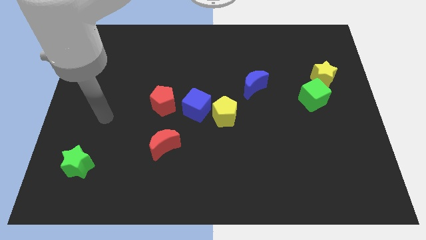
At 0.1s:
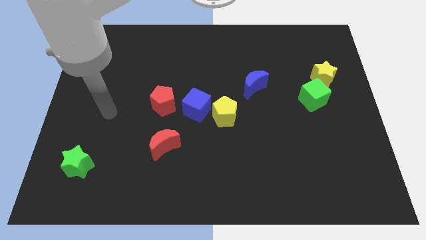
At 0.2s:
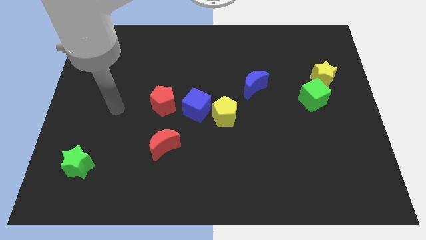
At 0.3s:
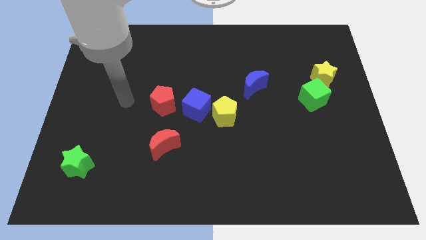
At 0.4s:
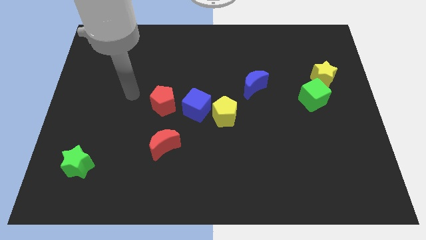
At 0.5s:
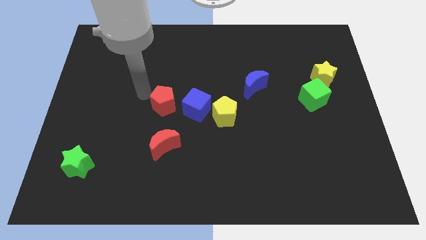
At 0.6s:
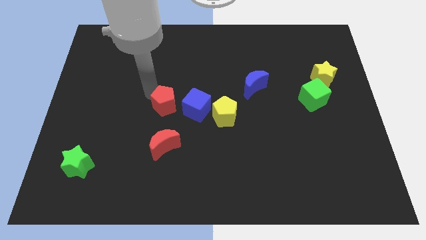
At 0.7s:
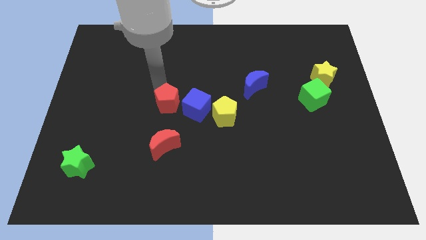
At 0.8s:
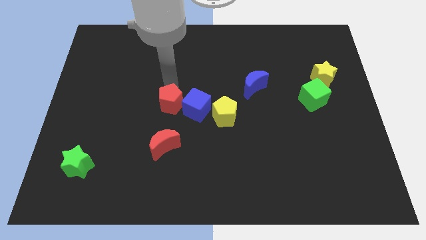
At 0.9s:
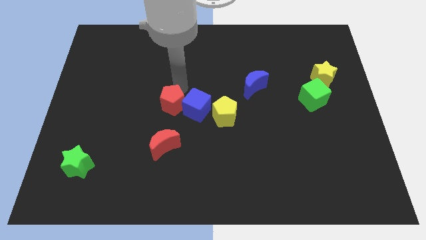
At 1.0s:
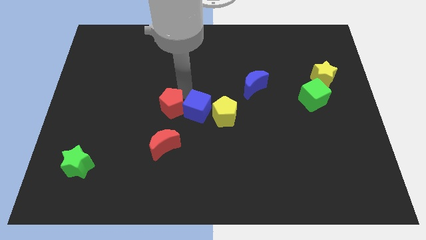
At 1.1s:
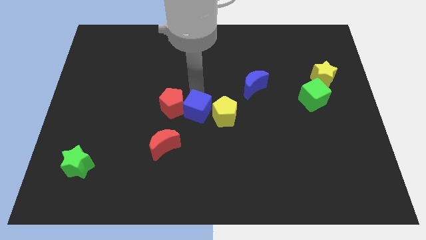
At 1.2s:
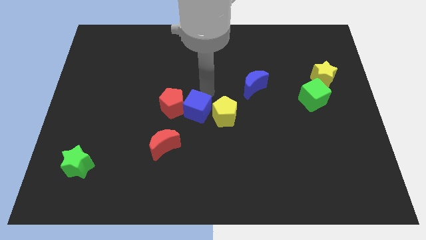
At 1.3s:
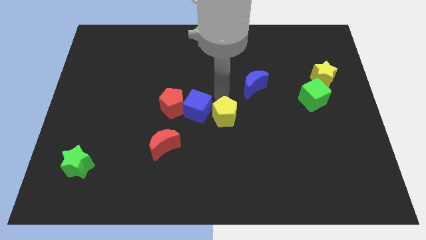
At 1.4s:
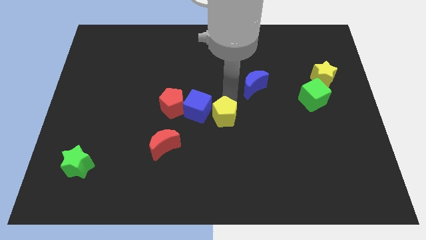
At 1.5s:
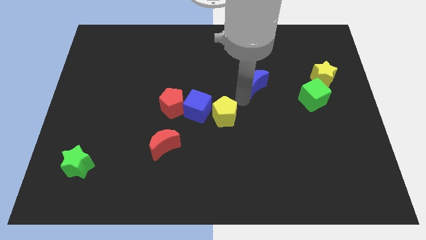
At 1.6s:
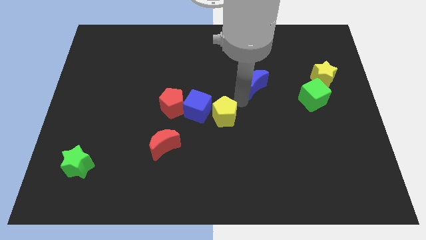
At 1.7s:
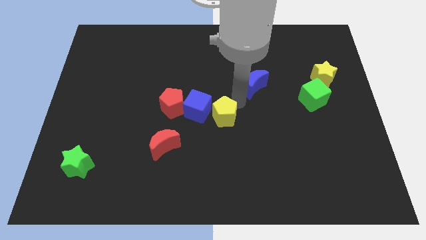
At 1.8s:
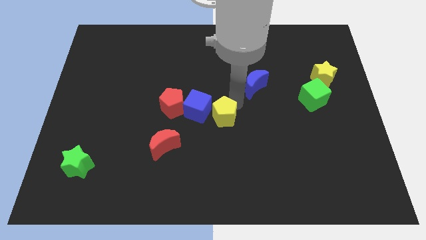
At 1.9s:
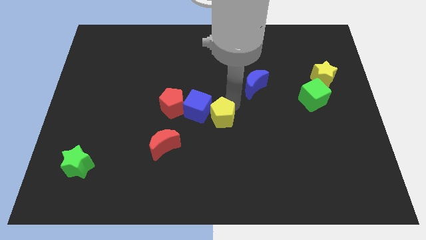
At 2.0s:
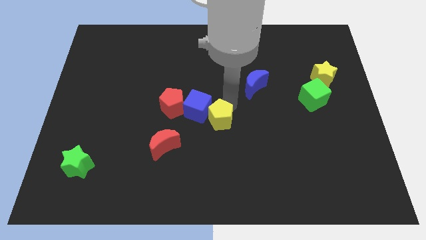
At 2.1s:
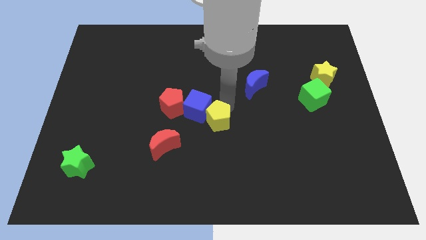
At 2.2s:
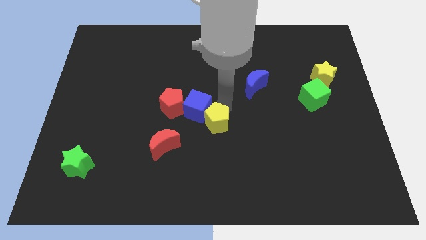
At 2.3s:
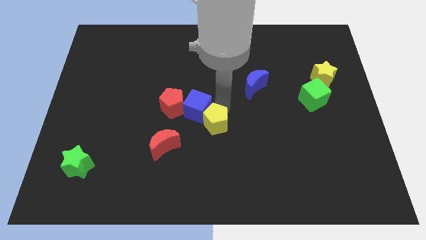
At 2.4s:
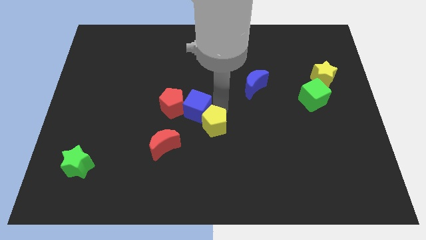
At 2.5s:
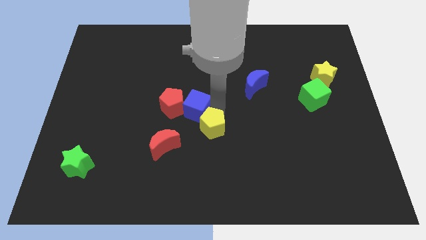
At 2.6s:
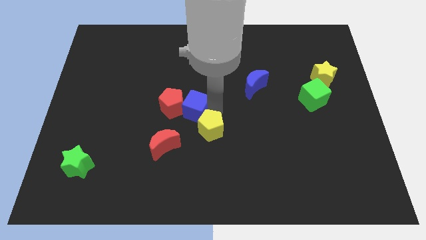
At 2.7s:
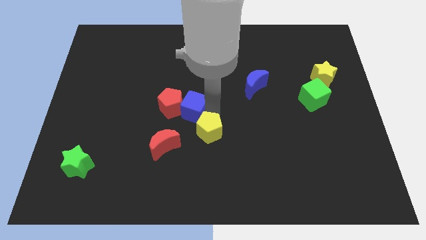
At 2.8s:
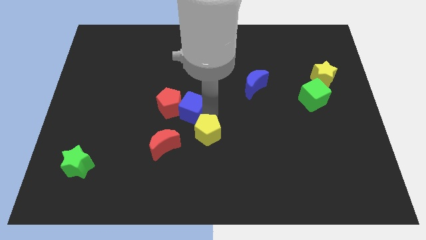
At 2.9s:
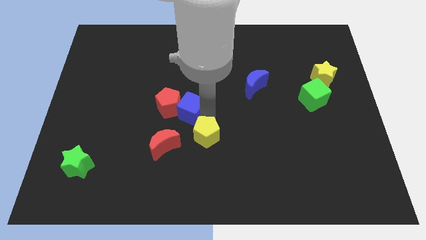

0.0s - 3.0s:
slightly move the yellow pentagon downwards and left diagonally

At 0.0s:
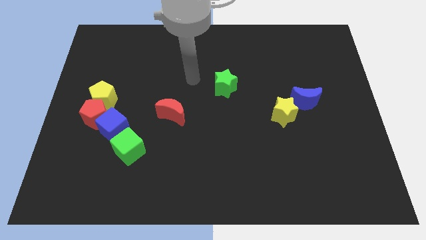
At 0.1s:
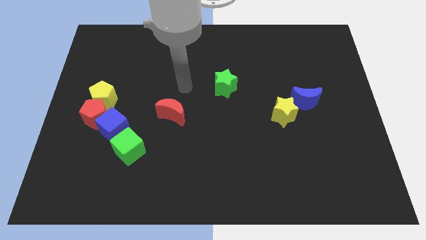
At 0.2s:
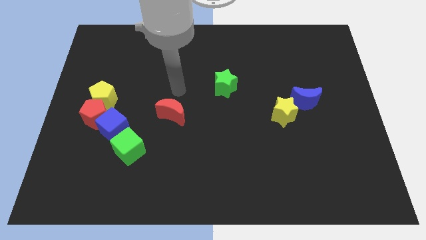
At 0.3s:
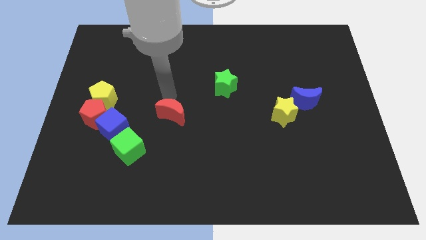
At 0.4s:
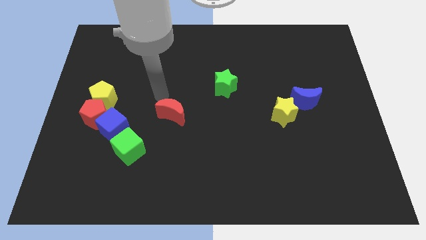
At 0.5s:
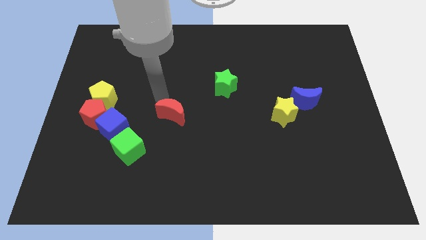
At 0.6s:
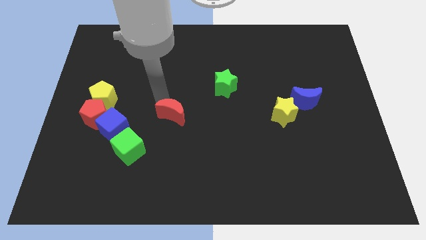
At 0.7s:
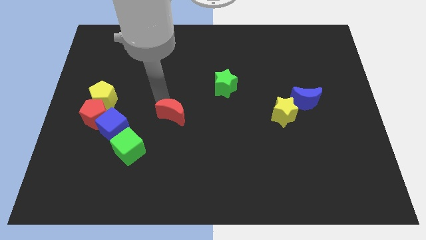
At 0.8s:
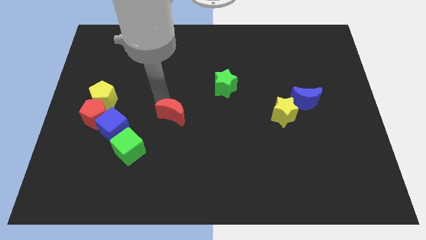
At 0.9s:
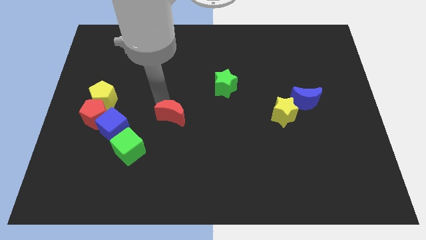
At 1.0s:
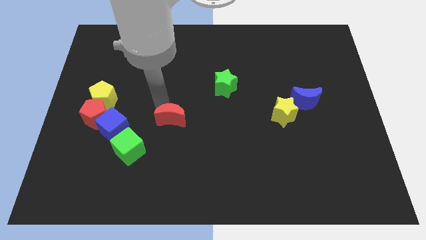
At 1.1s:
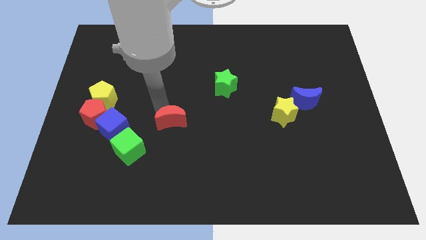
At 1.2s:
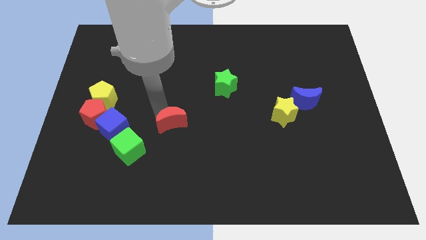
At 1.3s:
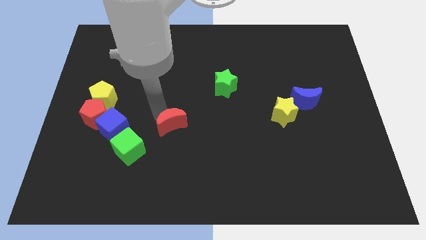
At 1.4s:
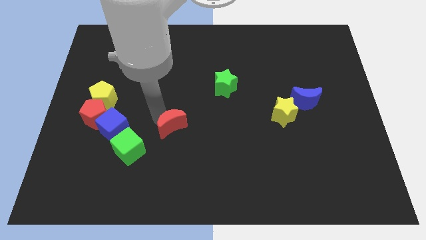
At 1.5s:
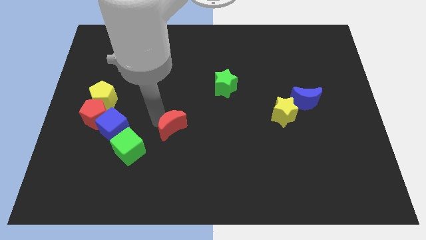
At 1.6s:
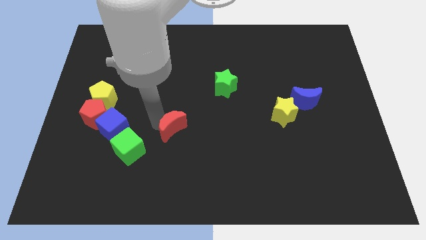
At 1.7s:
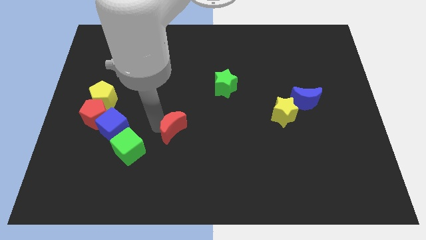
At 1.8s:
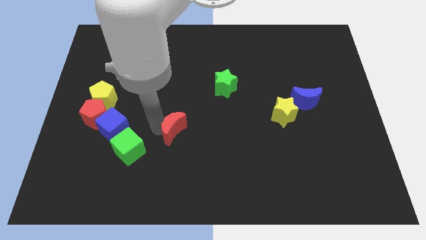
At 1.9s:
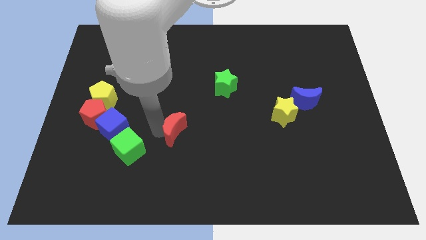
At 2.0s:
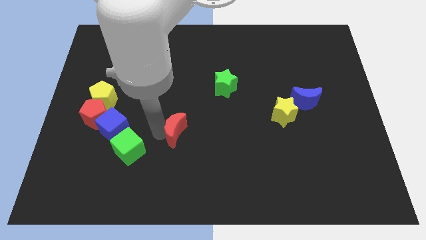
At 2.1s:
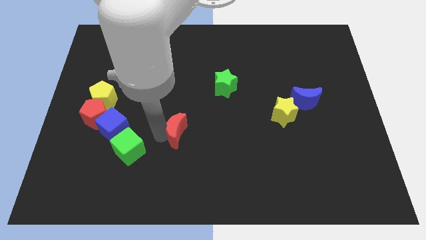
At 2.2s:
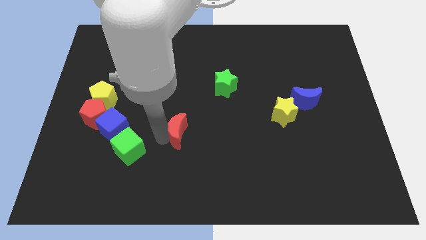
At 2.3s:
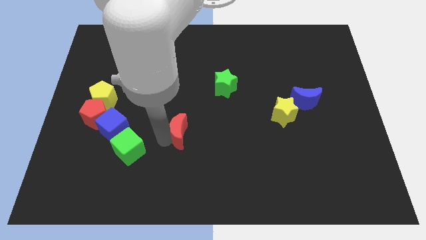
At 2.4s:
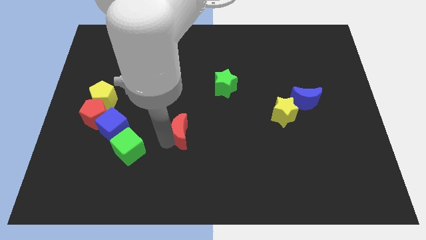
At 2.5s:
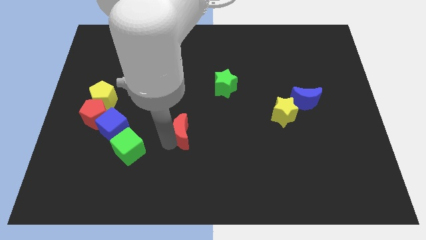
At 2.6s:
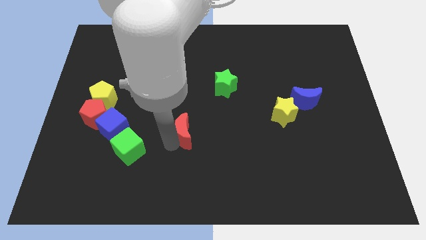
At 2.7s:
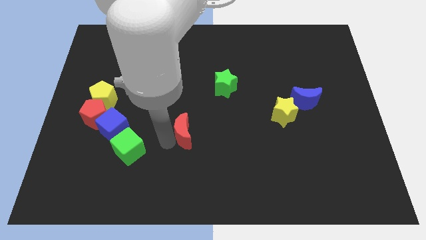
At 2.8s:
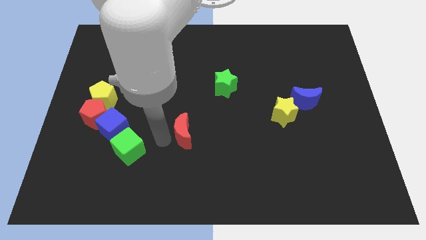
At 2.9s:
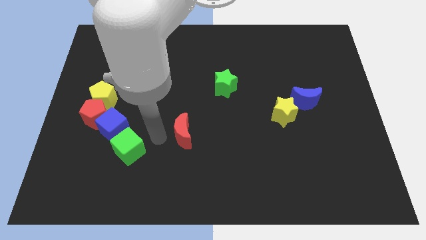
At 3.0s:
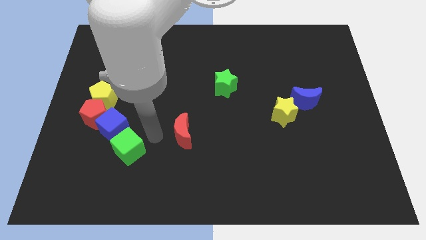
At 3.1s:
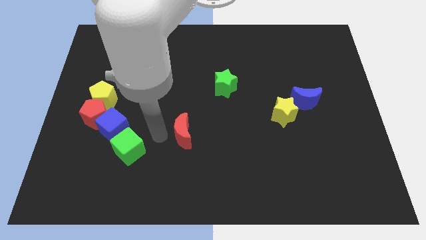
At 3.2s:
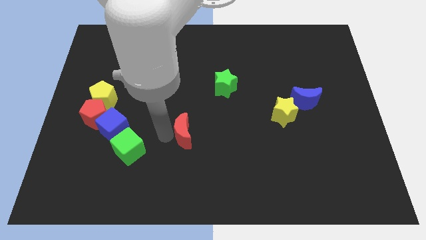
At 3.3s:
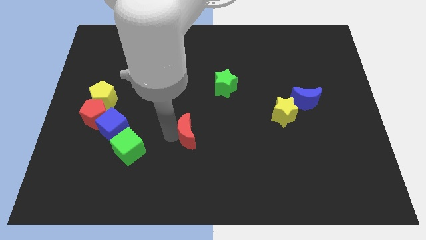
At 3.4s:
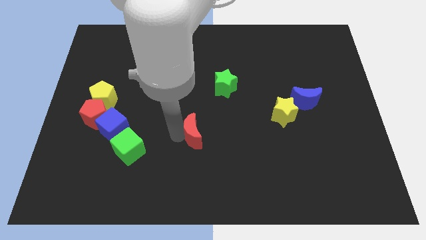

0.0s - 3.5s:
slightly push the red moon diagonally downwards and right

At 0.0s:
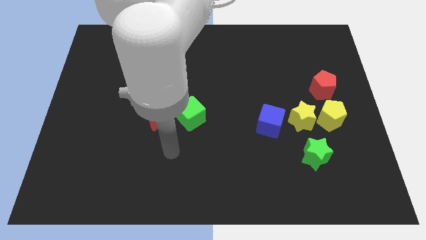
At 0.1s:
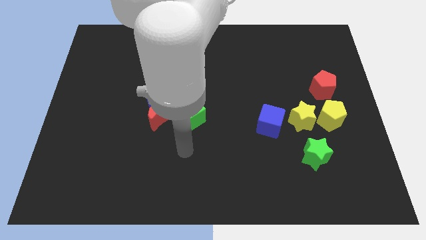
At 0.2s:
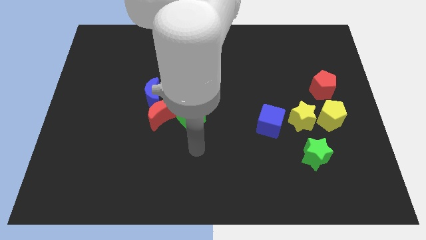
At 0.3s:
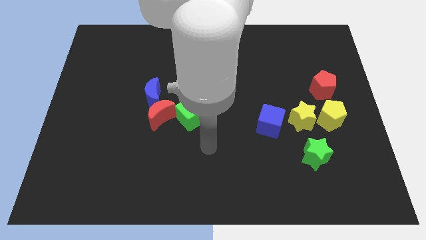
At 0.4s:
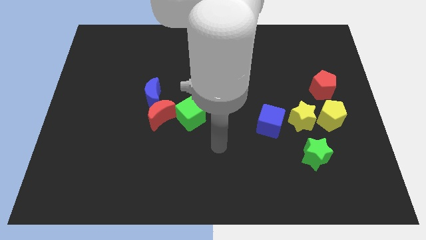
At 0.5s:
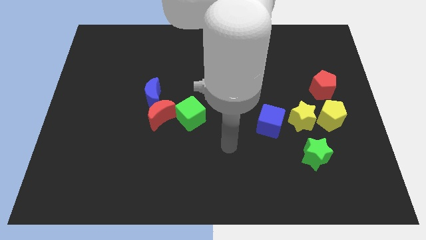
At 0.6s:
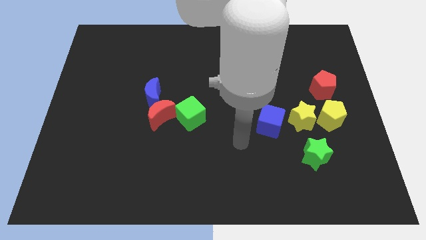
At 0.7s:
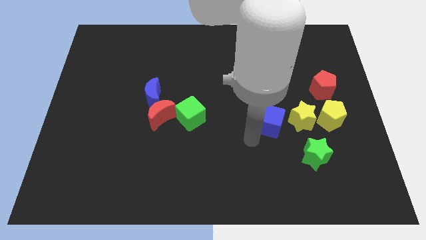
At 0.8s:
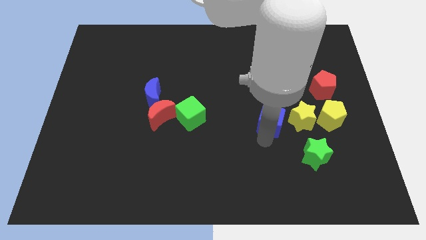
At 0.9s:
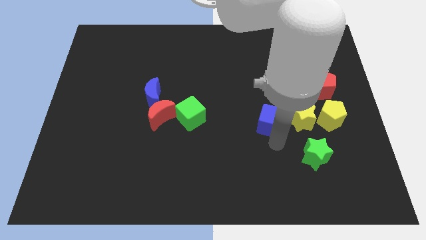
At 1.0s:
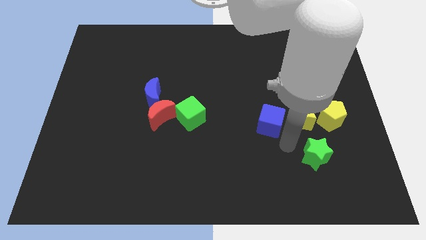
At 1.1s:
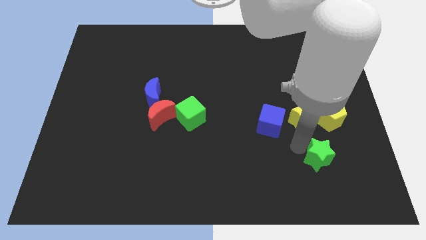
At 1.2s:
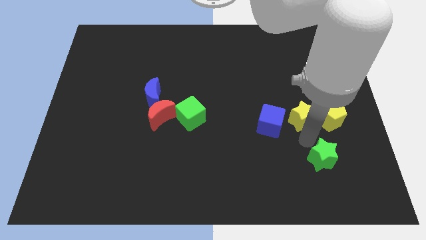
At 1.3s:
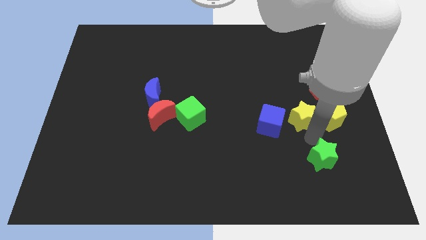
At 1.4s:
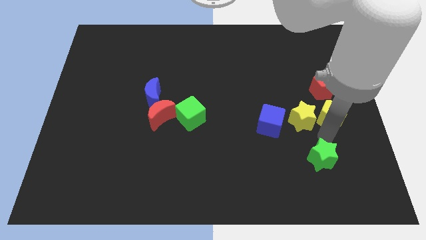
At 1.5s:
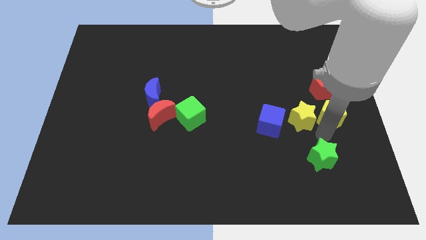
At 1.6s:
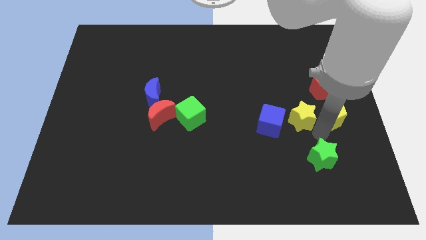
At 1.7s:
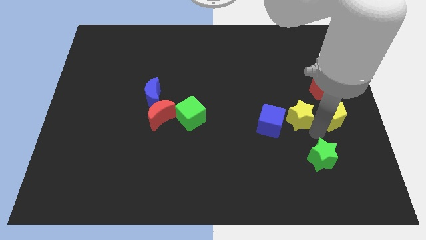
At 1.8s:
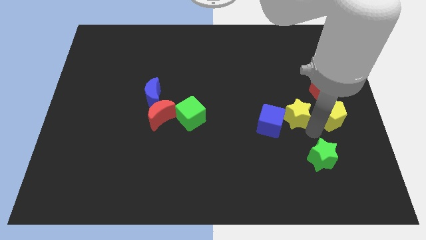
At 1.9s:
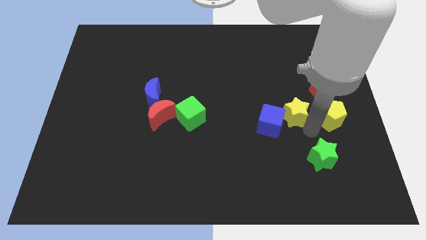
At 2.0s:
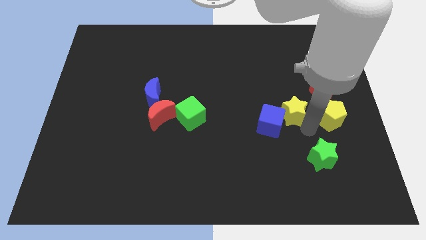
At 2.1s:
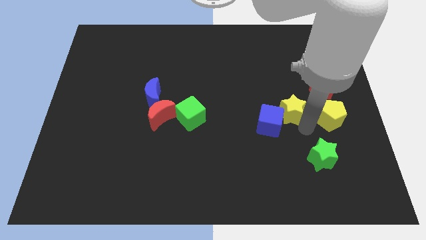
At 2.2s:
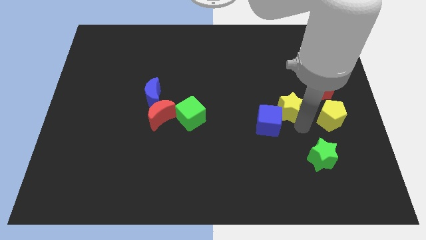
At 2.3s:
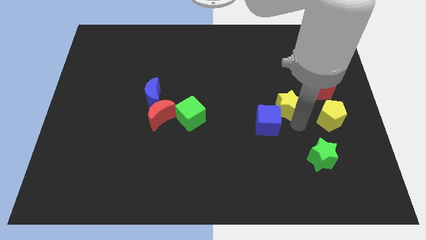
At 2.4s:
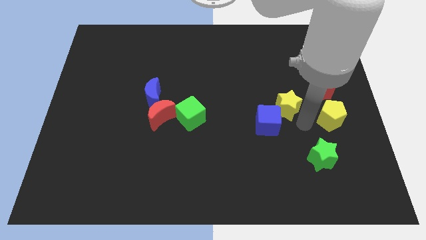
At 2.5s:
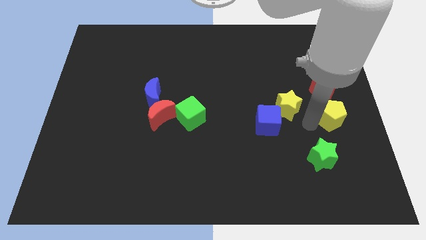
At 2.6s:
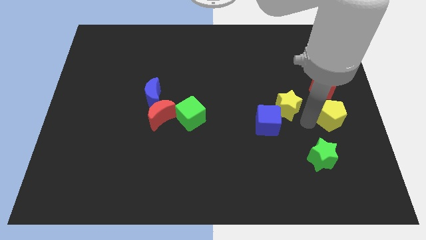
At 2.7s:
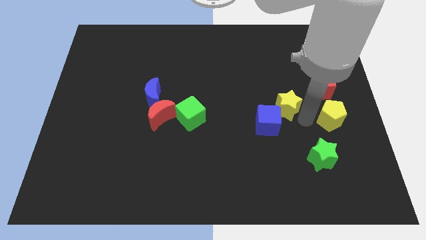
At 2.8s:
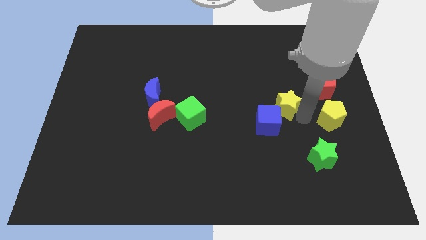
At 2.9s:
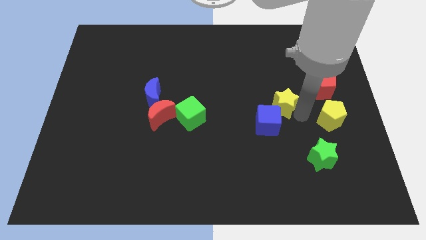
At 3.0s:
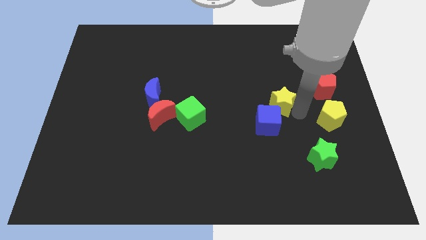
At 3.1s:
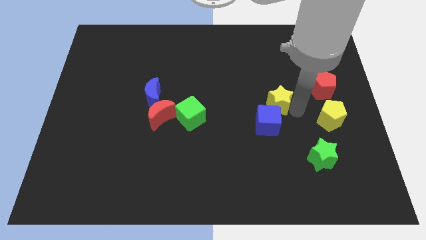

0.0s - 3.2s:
push the yellow star a little up and then to the left
